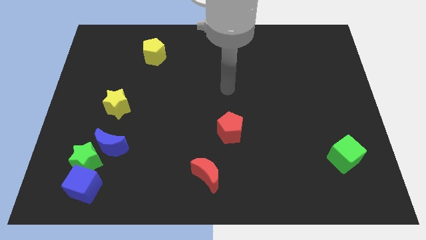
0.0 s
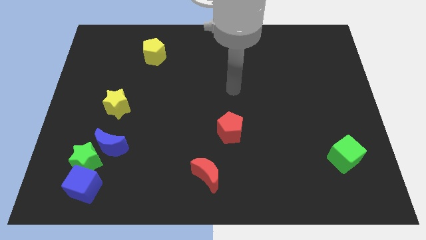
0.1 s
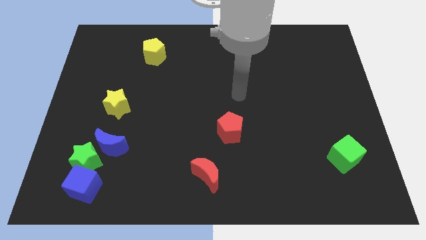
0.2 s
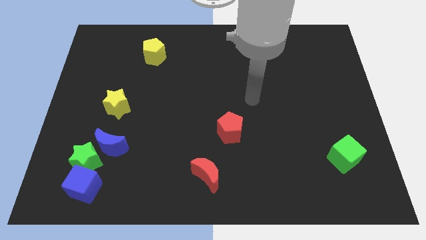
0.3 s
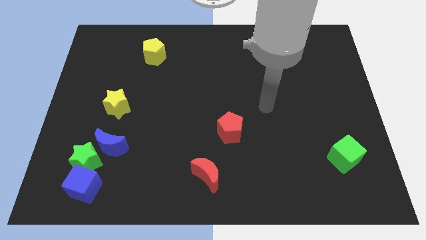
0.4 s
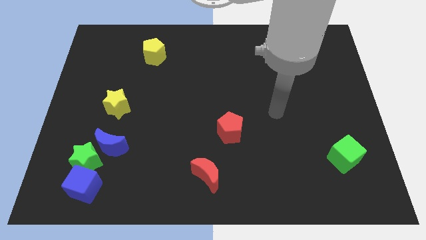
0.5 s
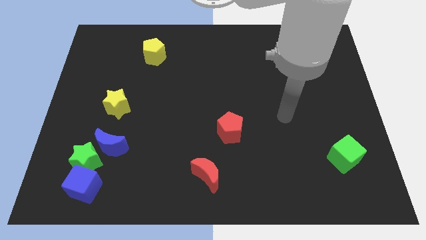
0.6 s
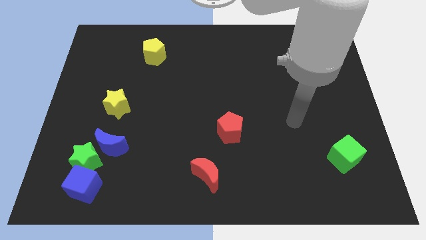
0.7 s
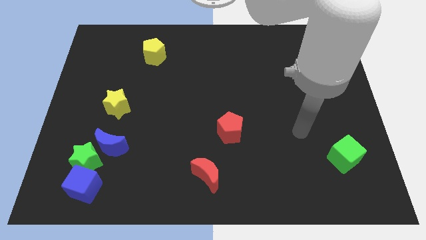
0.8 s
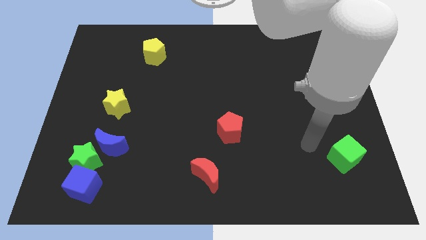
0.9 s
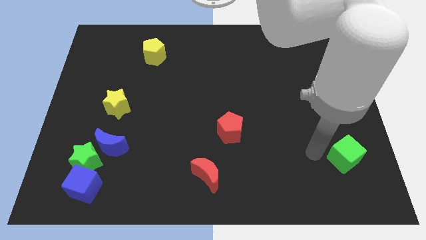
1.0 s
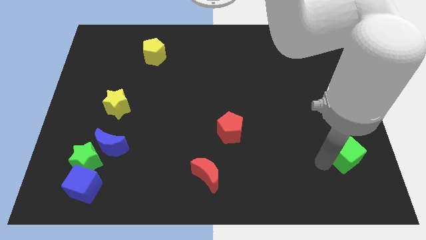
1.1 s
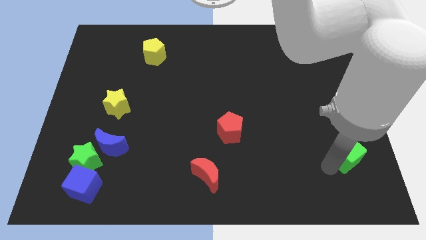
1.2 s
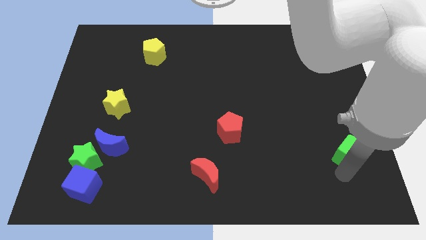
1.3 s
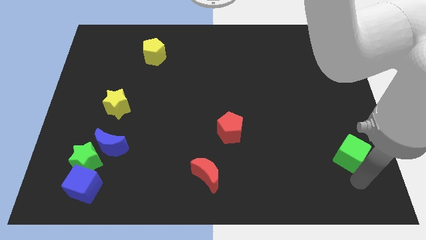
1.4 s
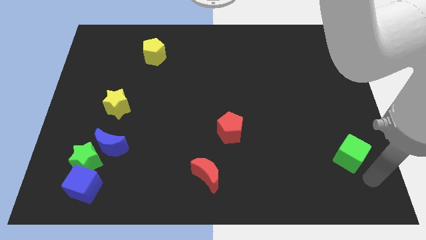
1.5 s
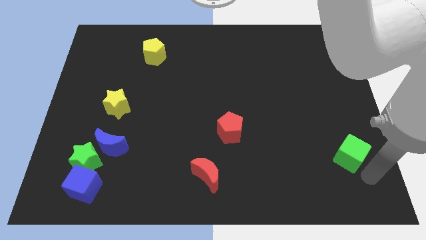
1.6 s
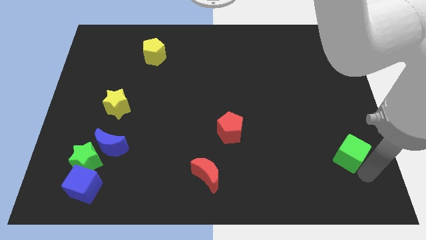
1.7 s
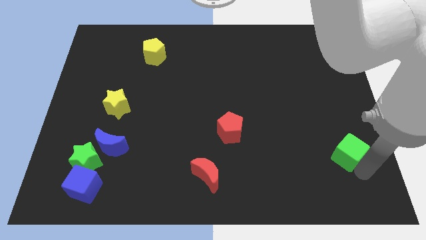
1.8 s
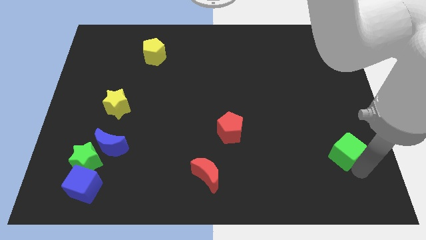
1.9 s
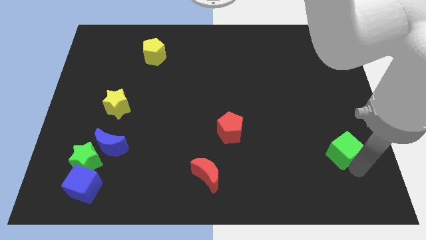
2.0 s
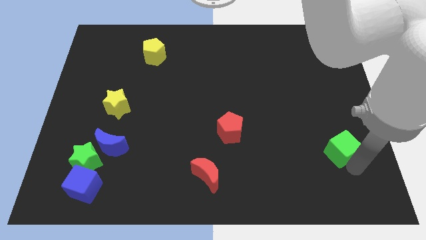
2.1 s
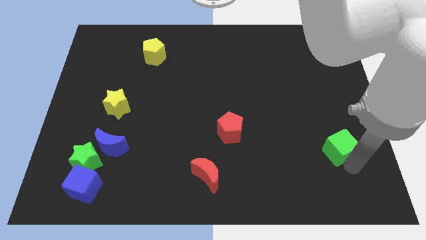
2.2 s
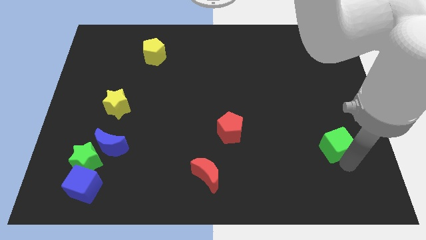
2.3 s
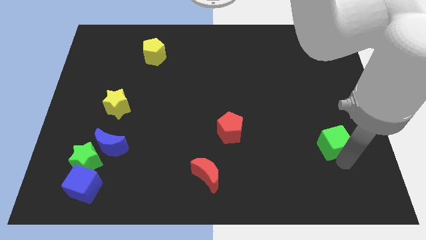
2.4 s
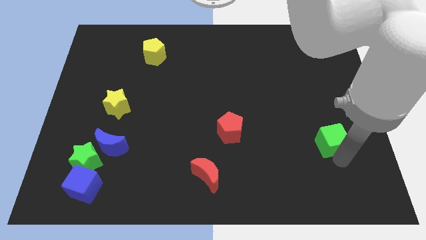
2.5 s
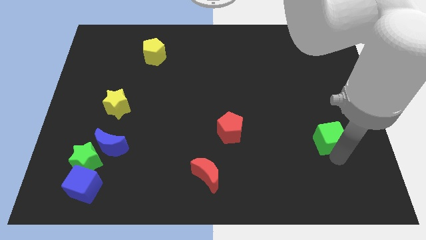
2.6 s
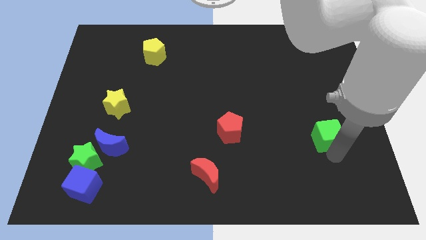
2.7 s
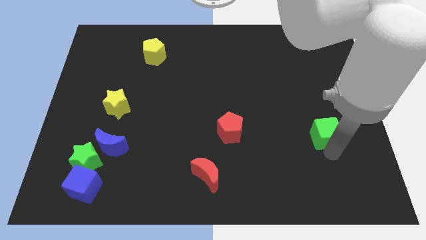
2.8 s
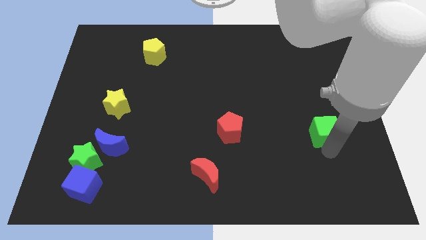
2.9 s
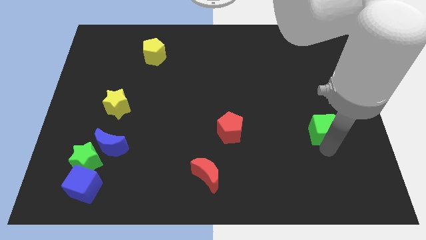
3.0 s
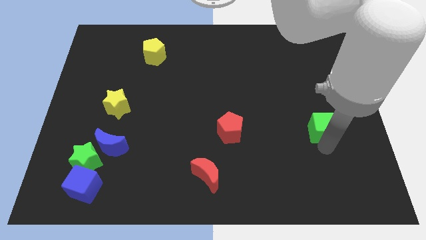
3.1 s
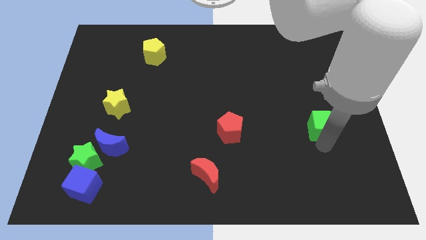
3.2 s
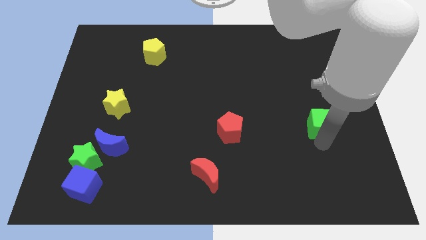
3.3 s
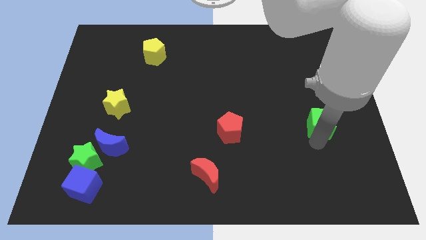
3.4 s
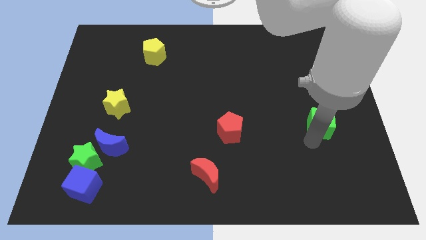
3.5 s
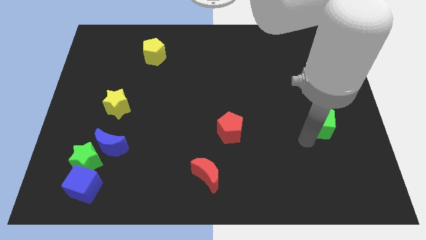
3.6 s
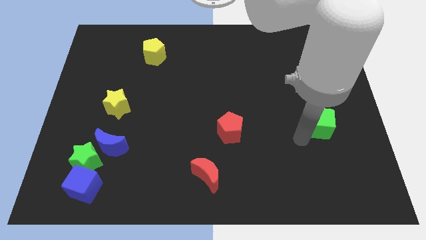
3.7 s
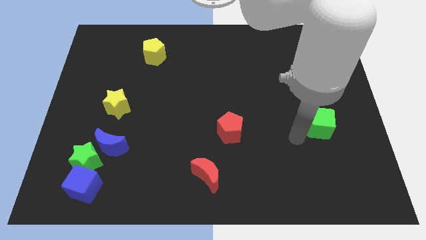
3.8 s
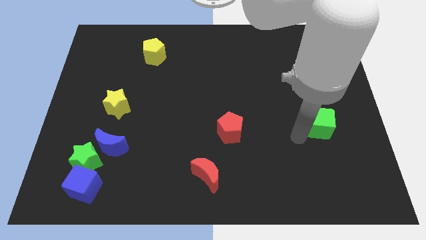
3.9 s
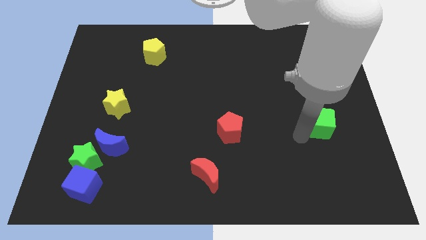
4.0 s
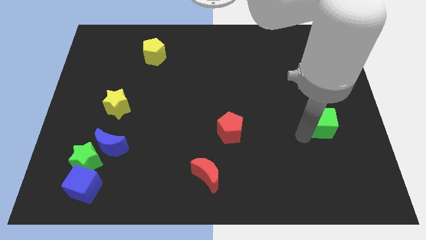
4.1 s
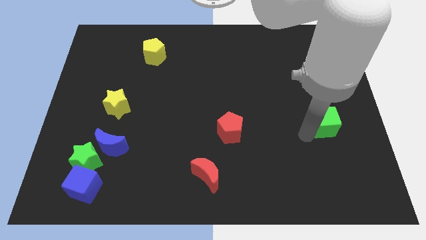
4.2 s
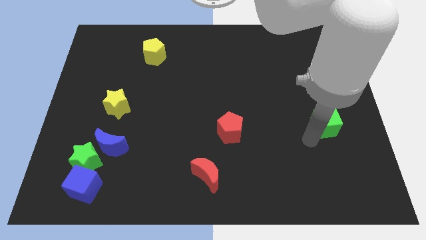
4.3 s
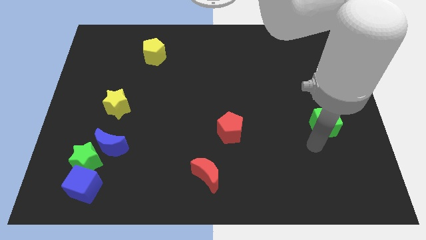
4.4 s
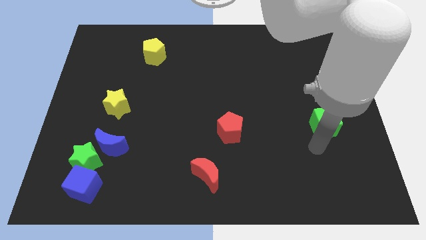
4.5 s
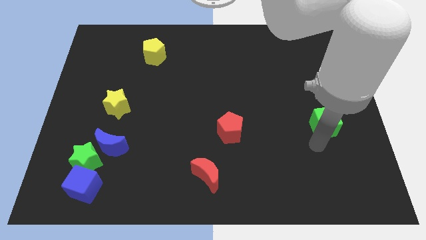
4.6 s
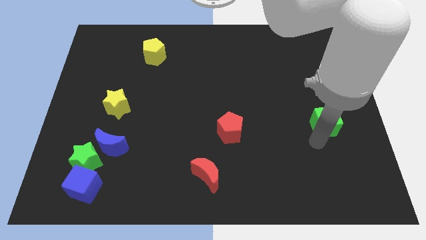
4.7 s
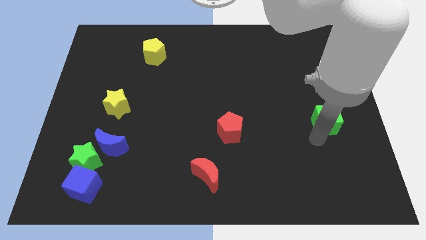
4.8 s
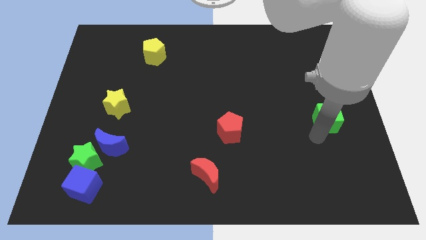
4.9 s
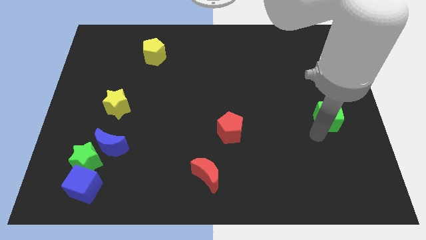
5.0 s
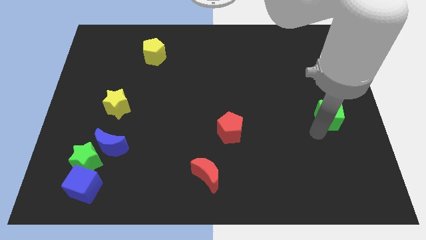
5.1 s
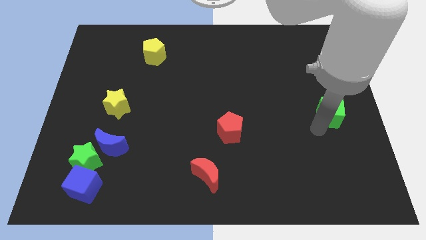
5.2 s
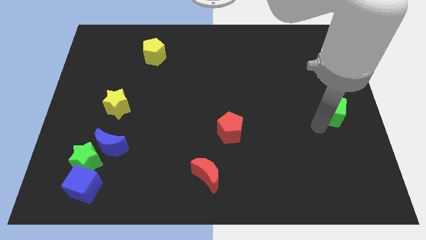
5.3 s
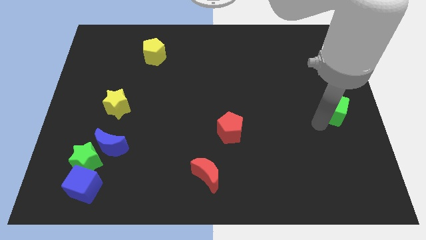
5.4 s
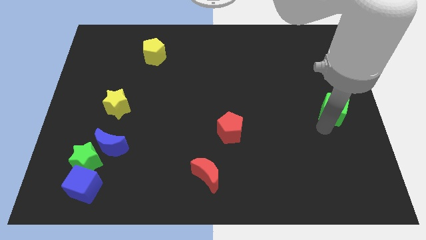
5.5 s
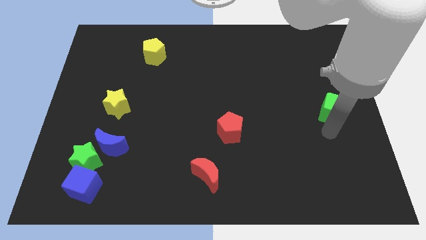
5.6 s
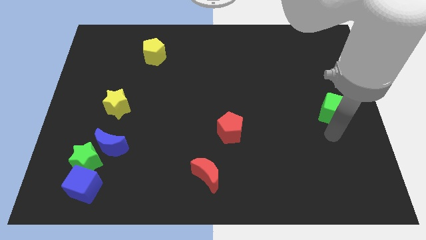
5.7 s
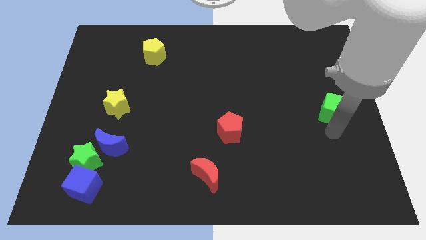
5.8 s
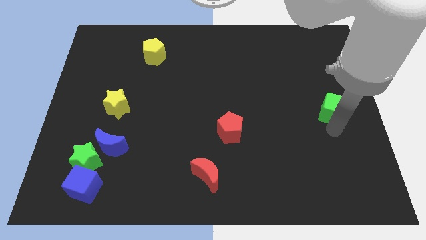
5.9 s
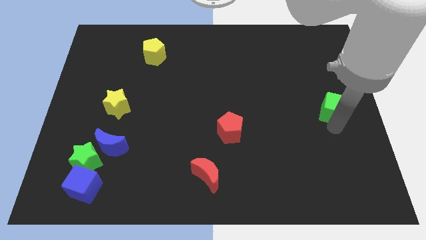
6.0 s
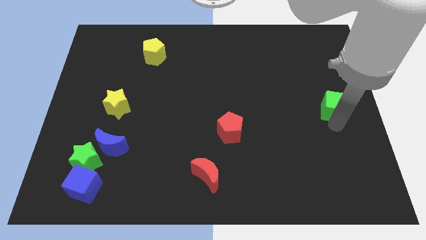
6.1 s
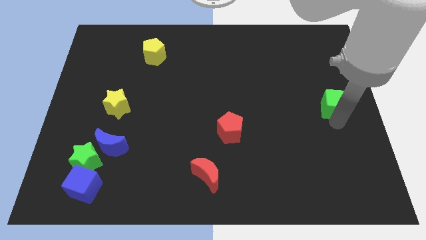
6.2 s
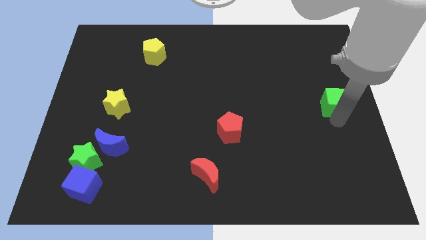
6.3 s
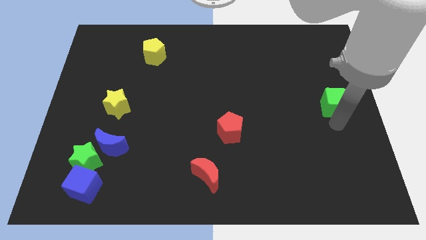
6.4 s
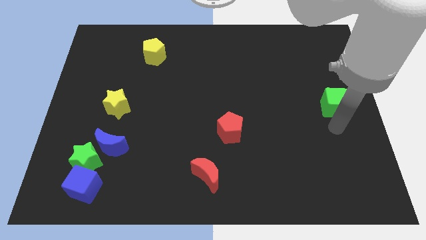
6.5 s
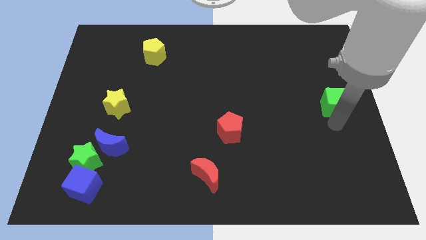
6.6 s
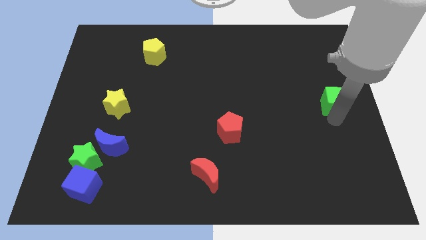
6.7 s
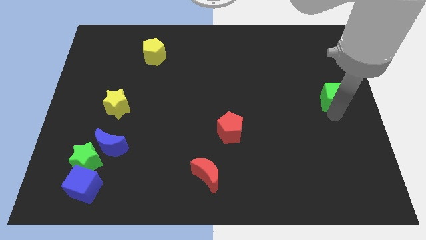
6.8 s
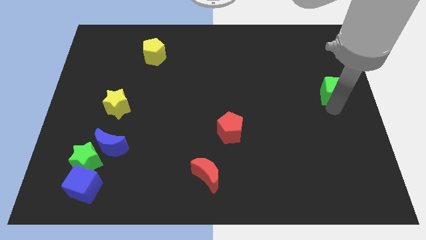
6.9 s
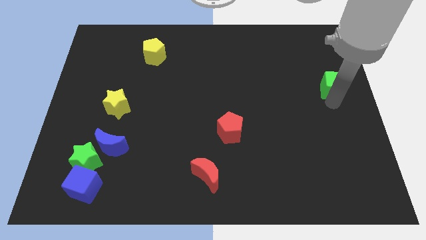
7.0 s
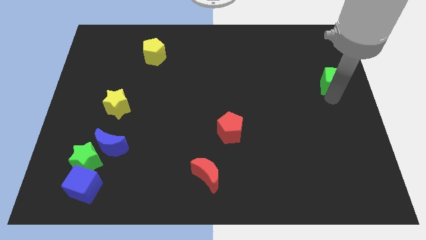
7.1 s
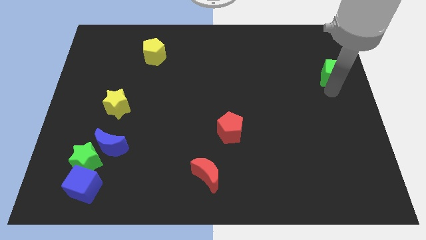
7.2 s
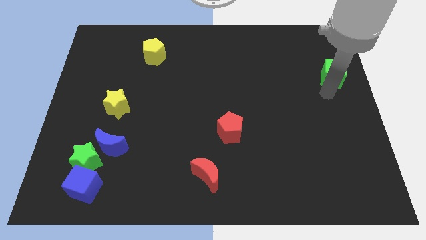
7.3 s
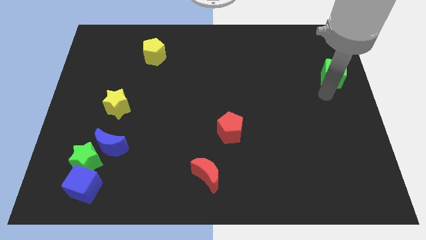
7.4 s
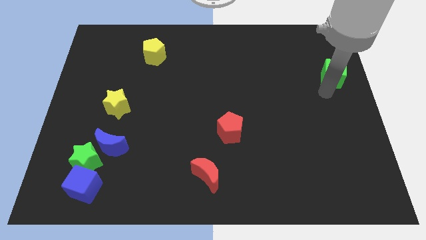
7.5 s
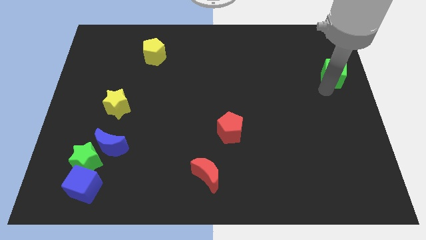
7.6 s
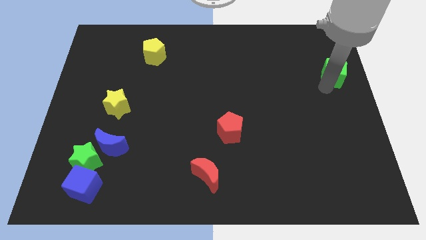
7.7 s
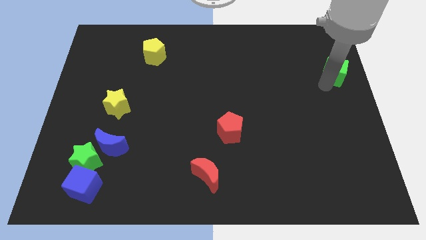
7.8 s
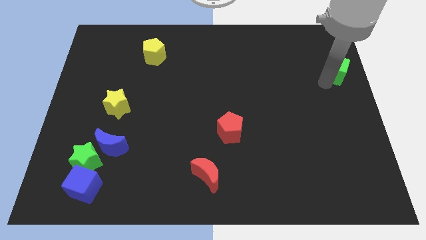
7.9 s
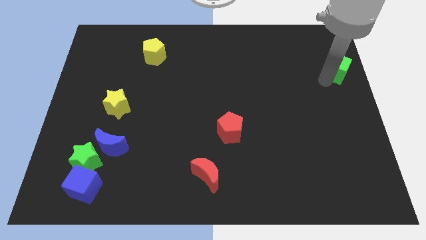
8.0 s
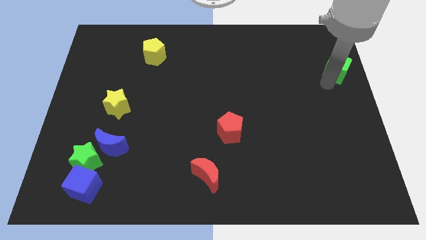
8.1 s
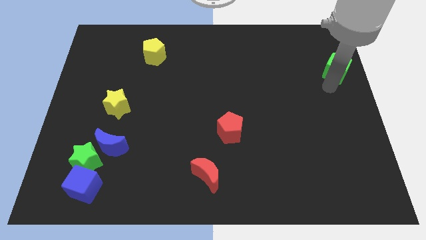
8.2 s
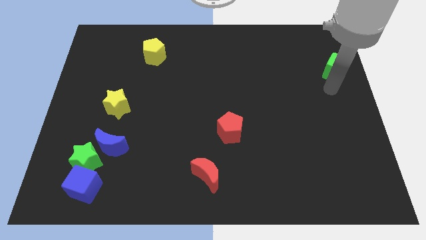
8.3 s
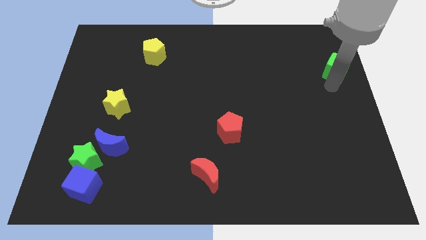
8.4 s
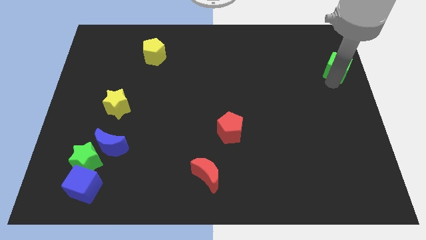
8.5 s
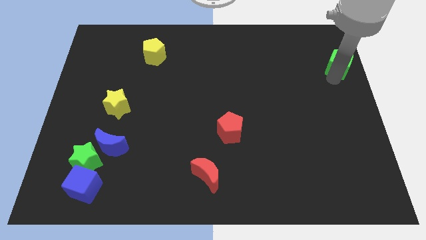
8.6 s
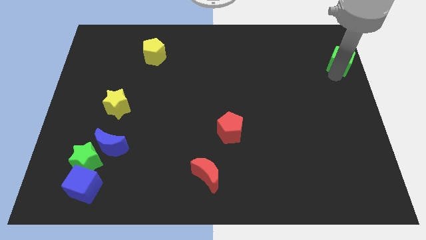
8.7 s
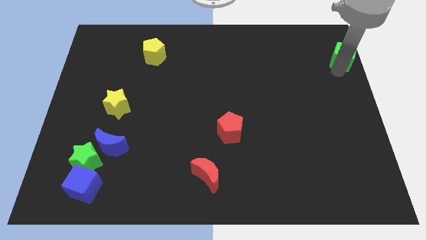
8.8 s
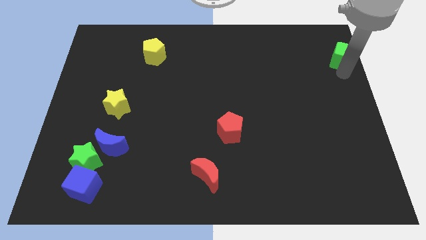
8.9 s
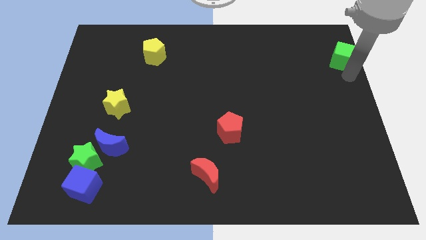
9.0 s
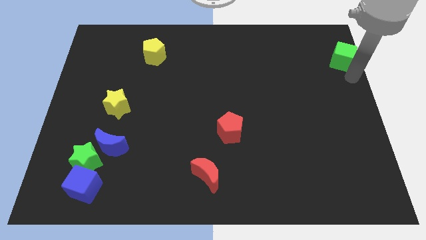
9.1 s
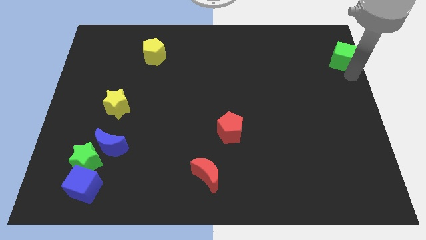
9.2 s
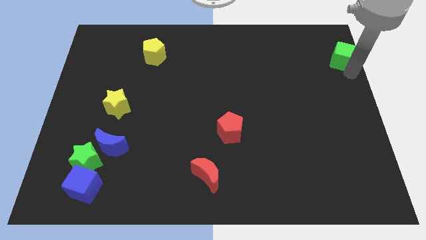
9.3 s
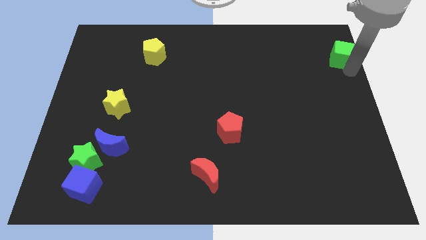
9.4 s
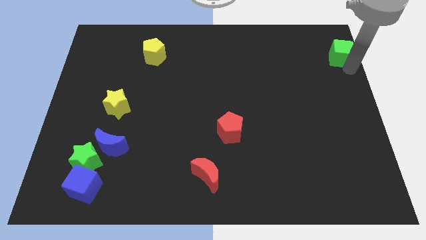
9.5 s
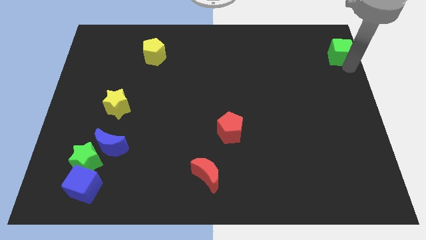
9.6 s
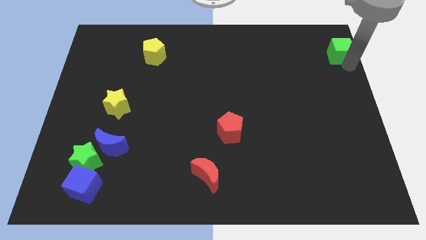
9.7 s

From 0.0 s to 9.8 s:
push the green cube to the top right of the board
